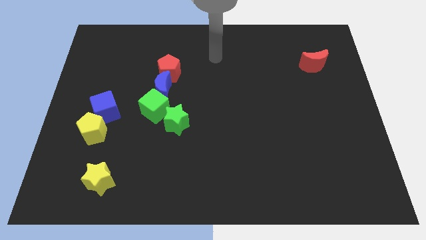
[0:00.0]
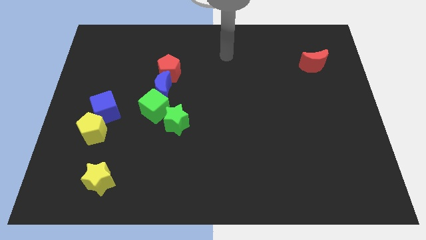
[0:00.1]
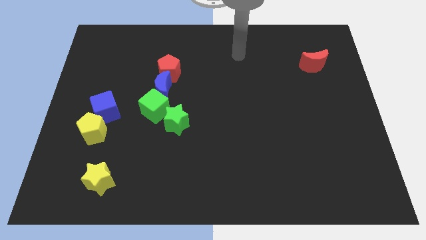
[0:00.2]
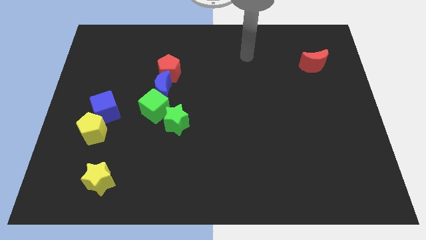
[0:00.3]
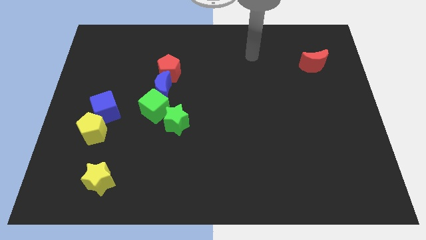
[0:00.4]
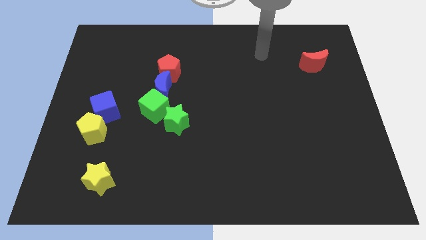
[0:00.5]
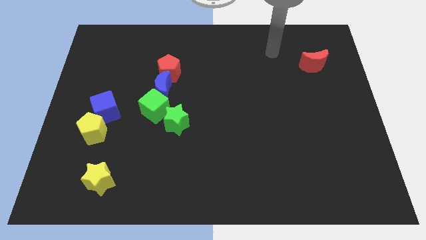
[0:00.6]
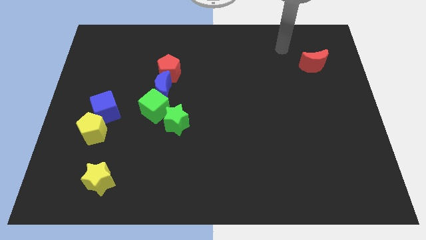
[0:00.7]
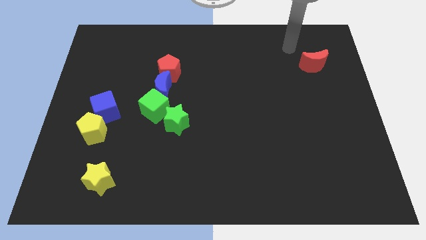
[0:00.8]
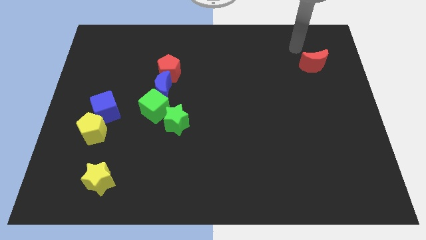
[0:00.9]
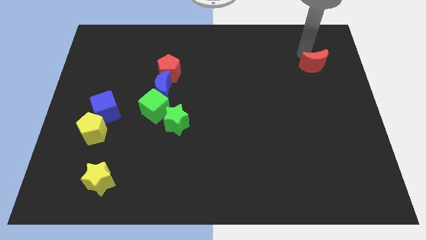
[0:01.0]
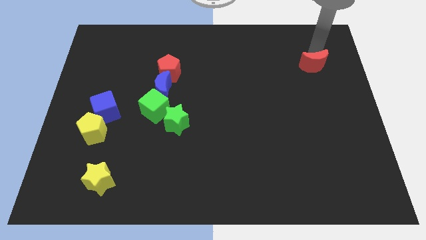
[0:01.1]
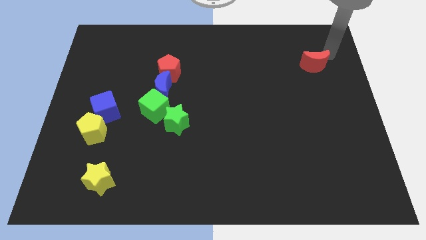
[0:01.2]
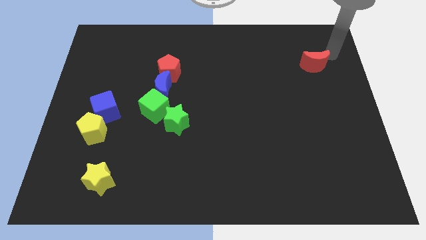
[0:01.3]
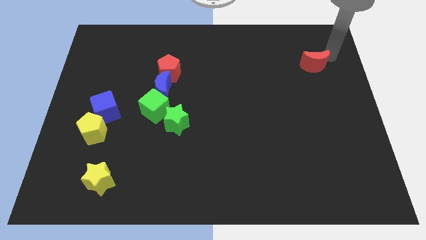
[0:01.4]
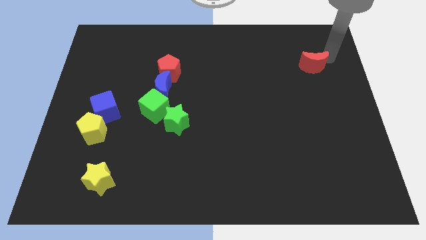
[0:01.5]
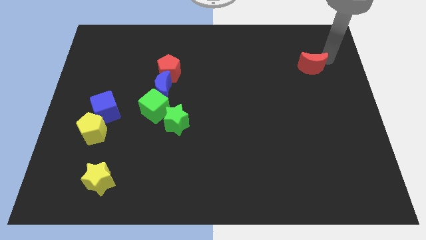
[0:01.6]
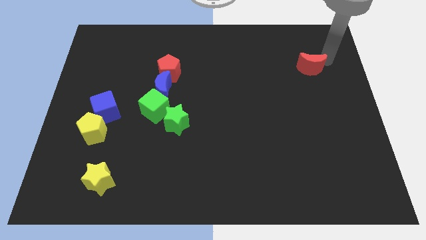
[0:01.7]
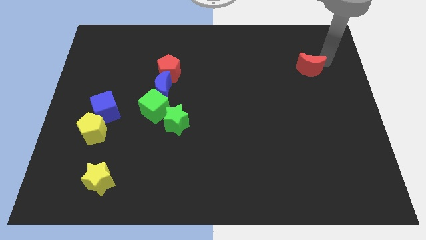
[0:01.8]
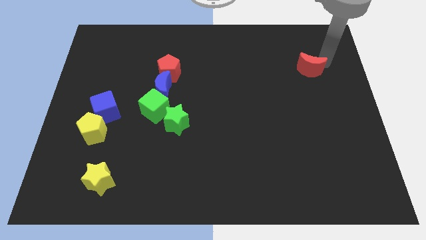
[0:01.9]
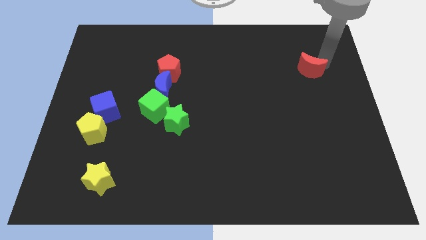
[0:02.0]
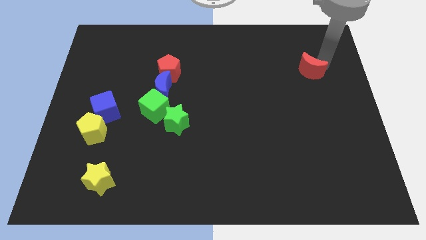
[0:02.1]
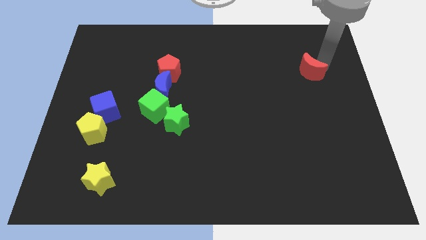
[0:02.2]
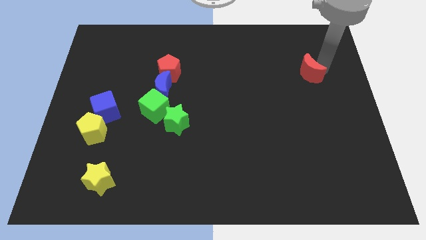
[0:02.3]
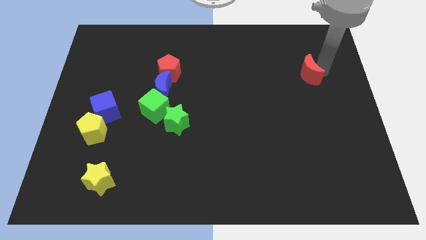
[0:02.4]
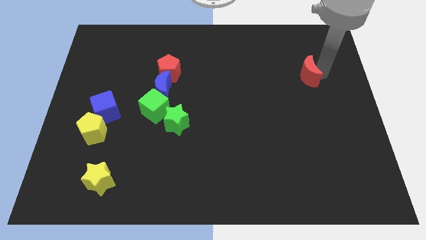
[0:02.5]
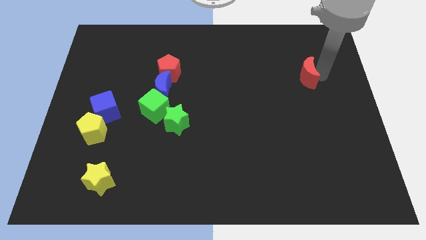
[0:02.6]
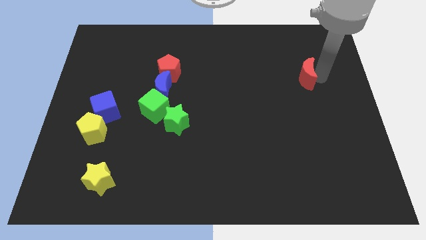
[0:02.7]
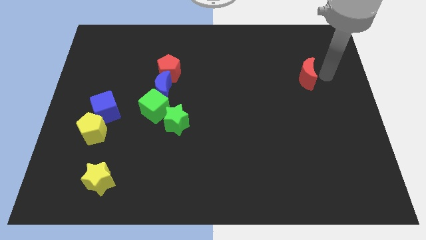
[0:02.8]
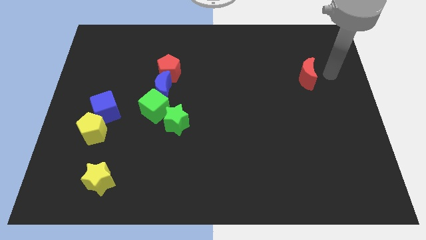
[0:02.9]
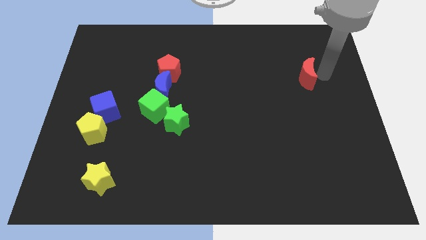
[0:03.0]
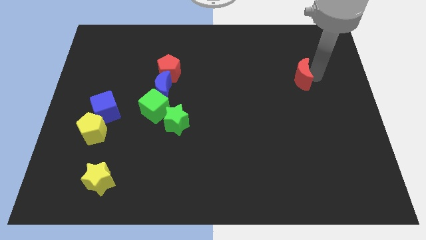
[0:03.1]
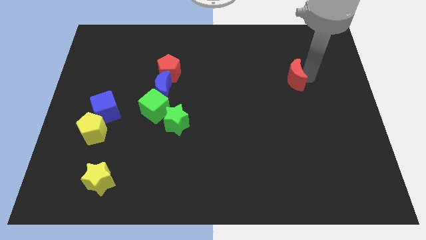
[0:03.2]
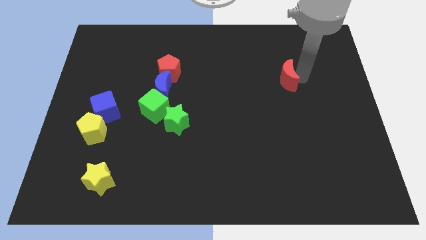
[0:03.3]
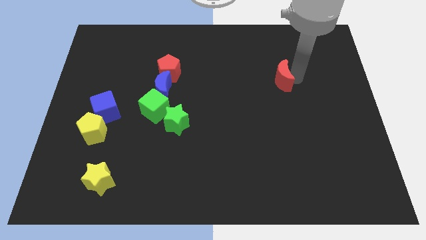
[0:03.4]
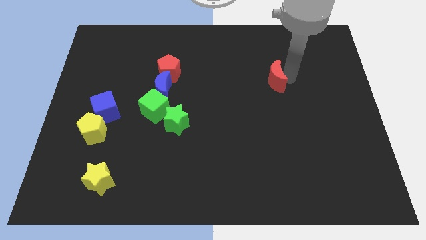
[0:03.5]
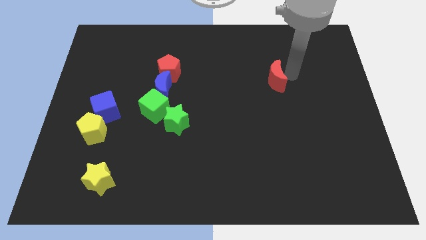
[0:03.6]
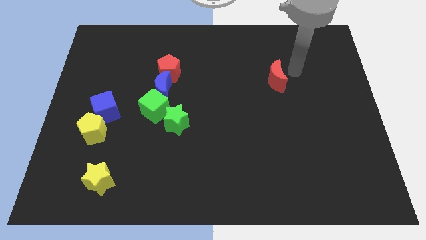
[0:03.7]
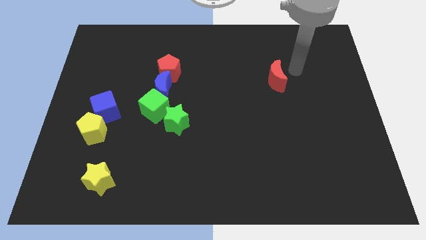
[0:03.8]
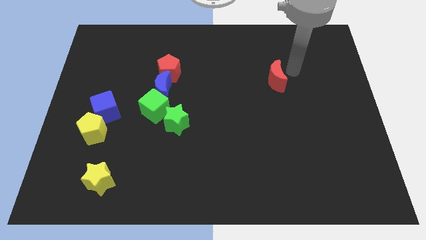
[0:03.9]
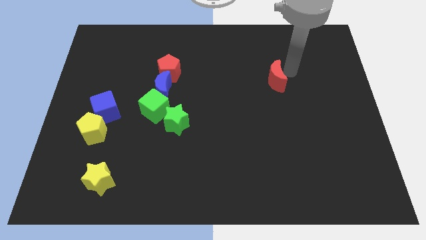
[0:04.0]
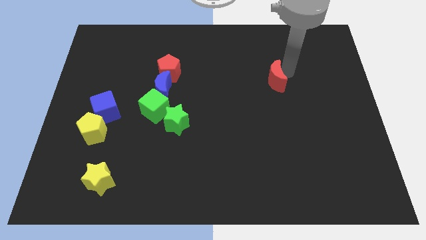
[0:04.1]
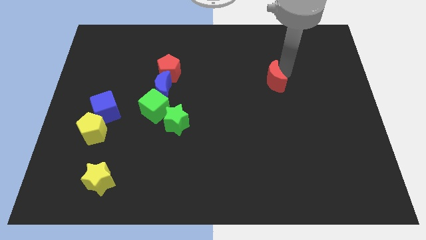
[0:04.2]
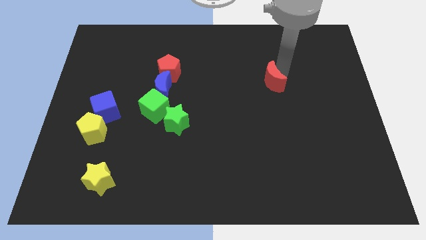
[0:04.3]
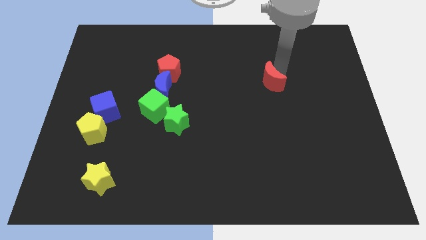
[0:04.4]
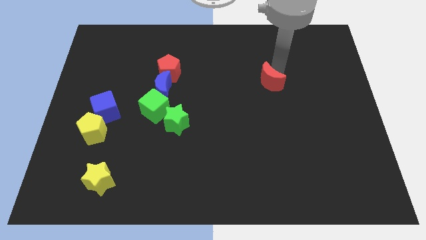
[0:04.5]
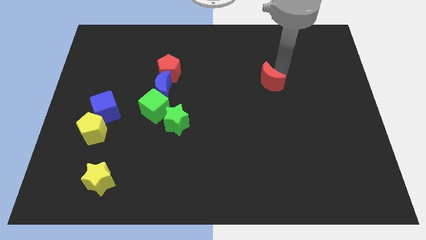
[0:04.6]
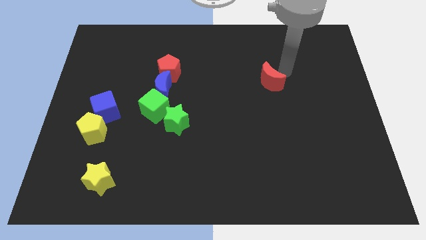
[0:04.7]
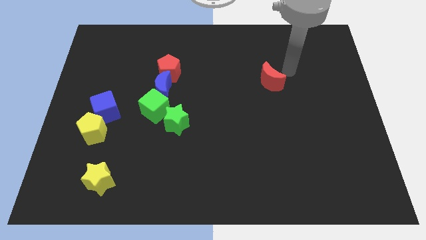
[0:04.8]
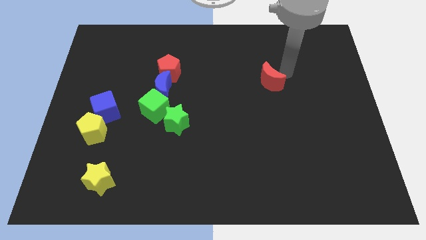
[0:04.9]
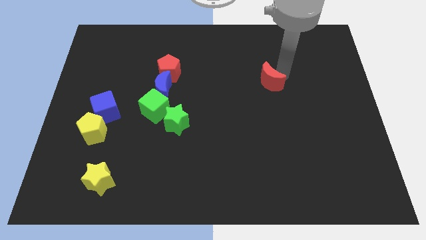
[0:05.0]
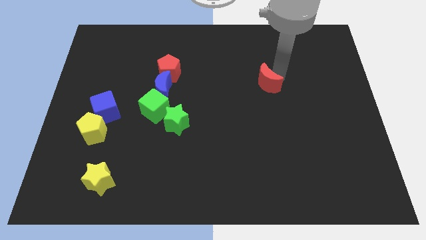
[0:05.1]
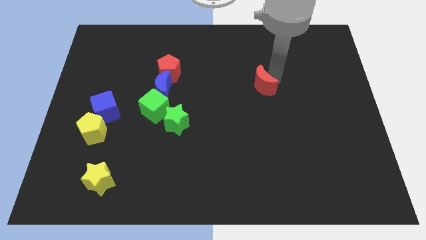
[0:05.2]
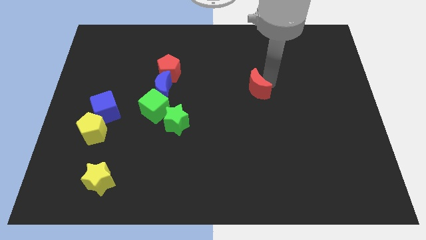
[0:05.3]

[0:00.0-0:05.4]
push the red moon to the middle of the board

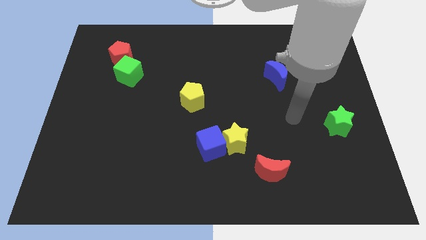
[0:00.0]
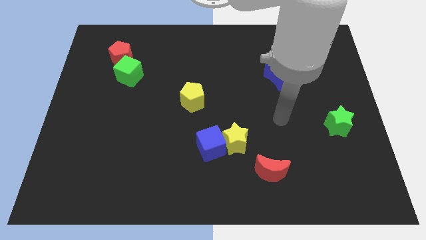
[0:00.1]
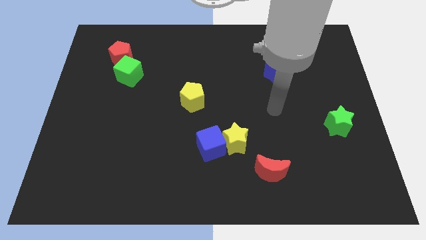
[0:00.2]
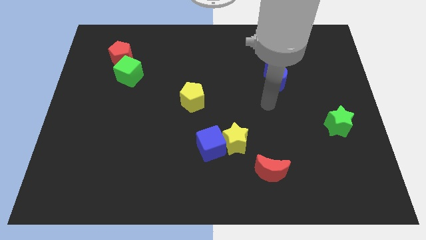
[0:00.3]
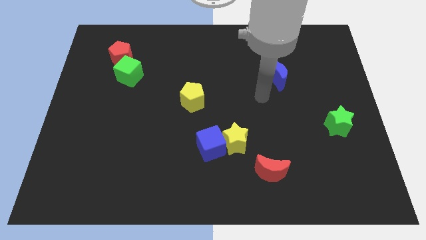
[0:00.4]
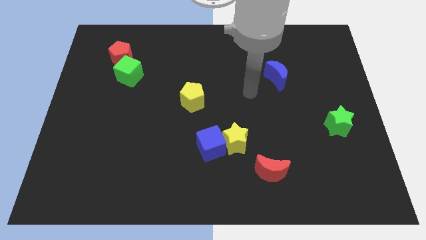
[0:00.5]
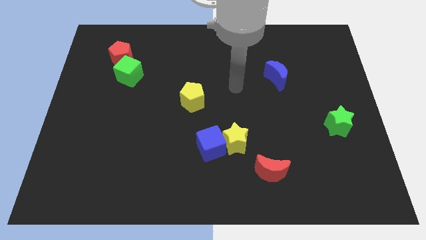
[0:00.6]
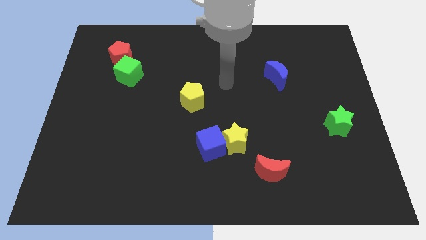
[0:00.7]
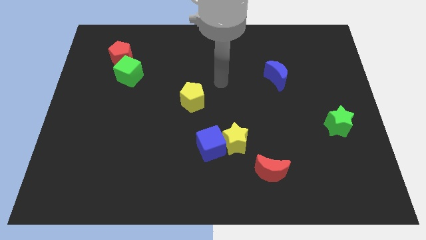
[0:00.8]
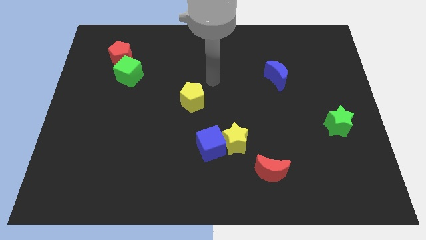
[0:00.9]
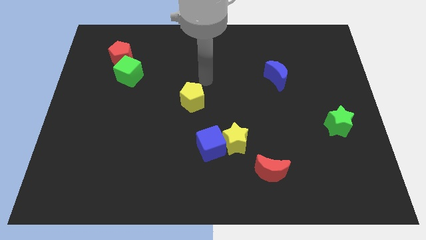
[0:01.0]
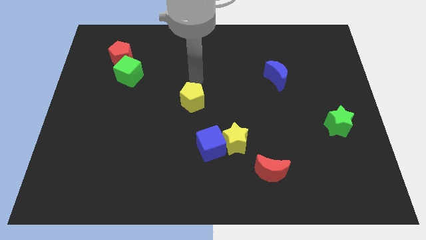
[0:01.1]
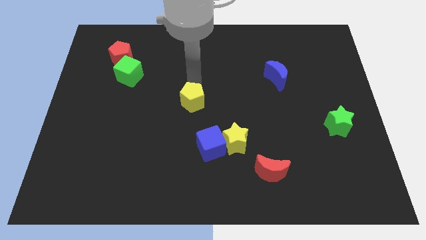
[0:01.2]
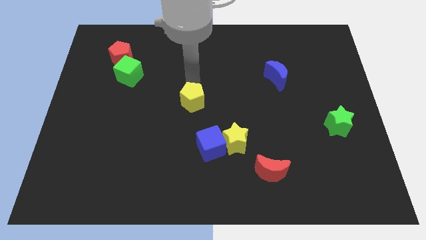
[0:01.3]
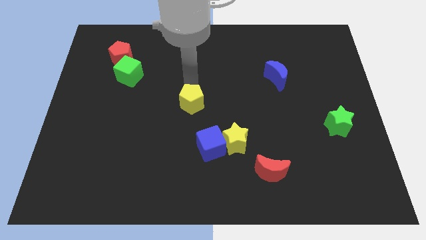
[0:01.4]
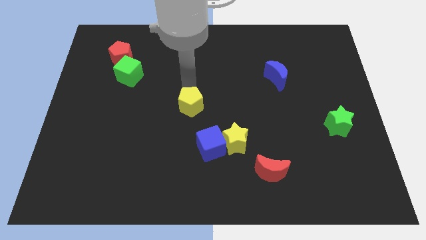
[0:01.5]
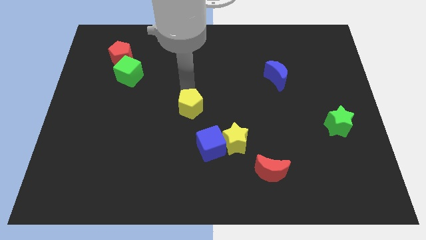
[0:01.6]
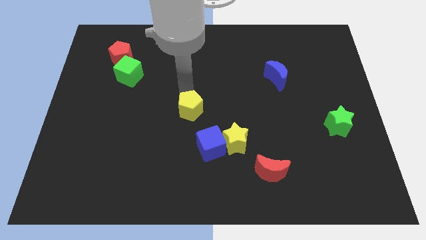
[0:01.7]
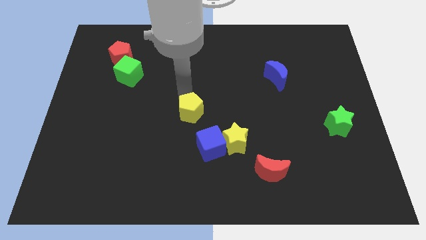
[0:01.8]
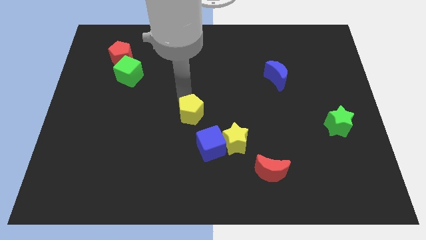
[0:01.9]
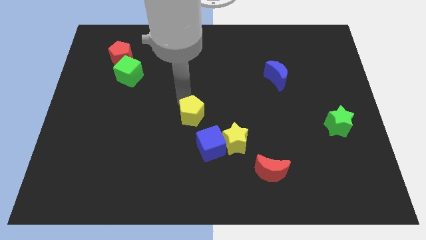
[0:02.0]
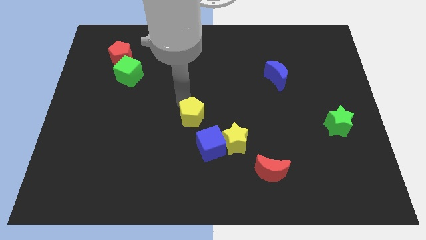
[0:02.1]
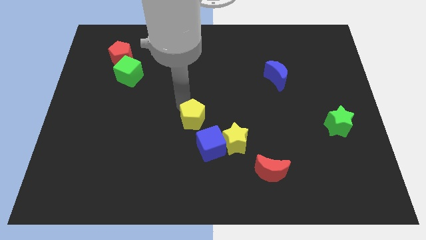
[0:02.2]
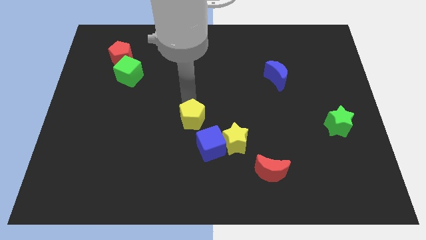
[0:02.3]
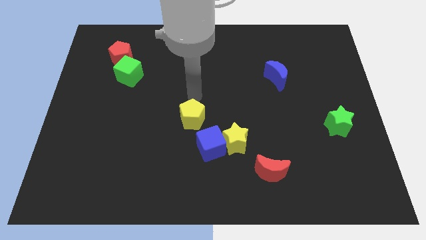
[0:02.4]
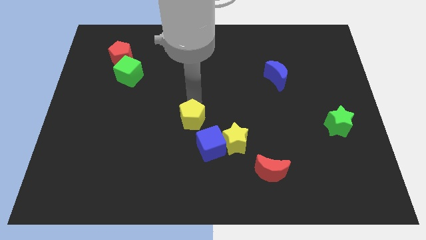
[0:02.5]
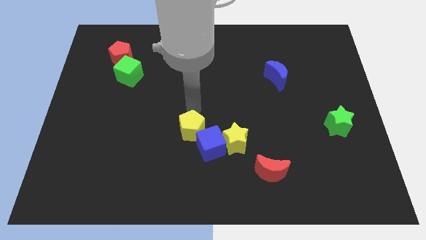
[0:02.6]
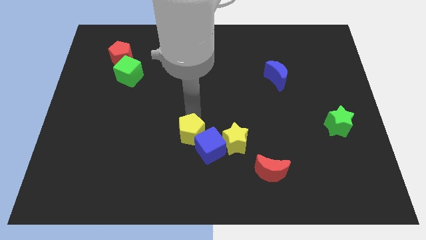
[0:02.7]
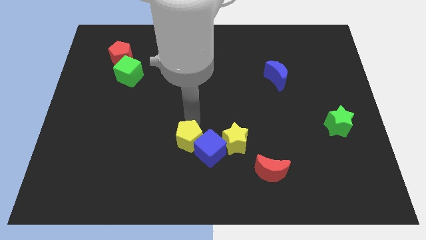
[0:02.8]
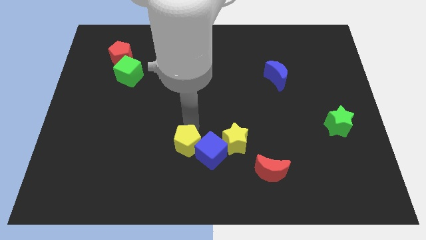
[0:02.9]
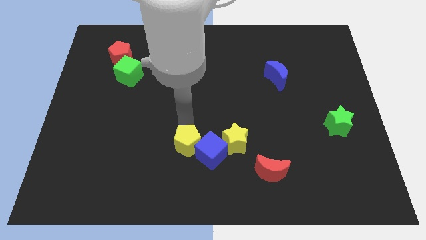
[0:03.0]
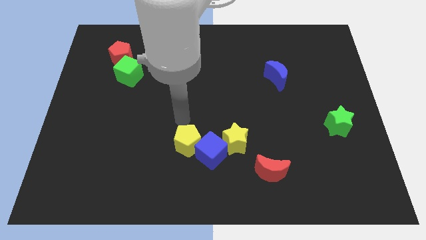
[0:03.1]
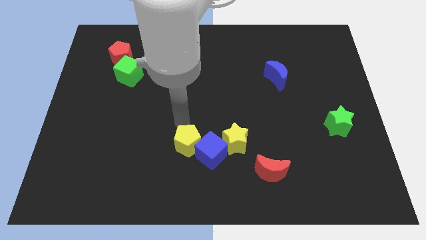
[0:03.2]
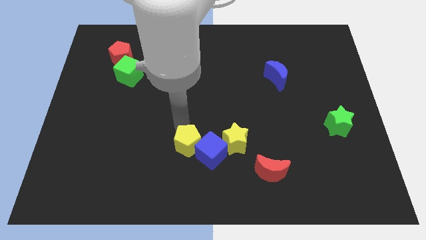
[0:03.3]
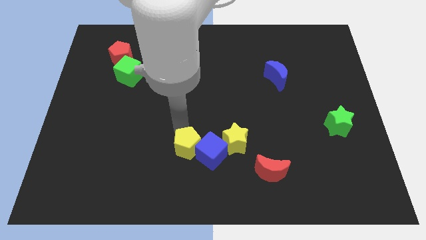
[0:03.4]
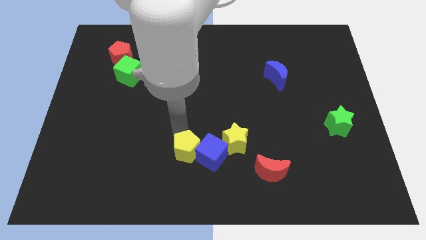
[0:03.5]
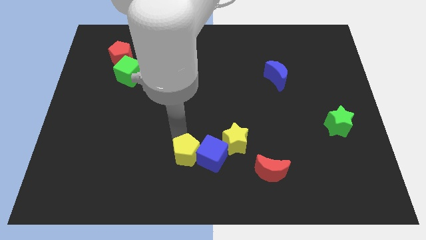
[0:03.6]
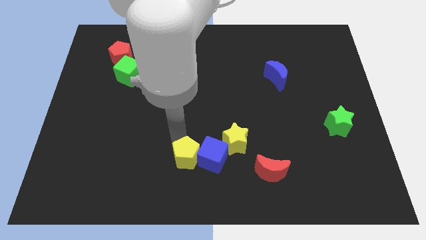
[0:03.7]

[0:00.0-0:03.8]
put the yellow pentagon to the bottom
